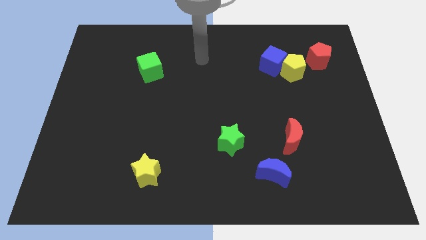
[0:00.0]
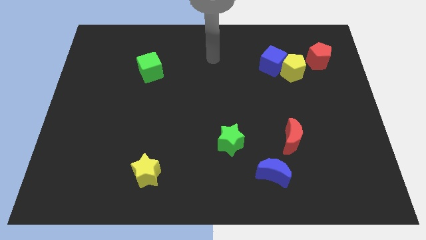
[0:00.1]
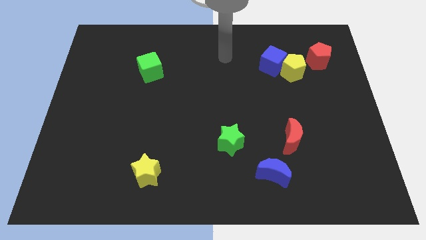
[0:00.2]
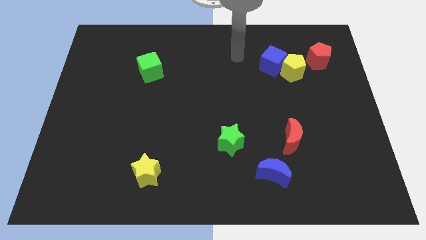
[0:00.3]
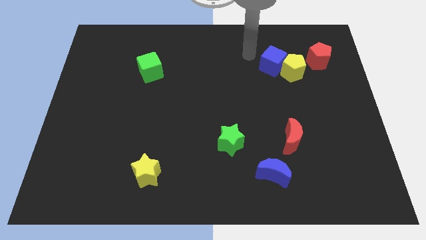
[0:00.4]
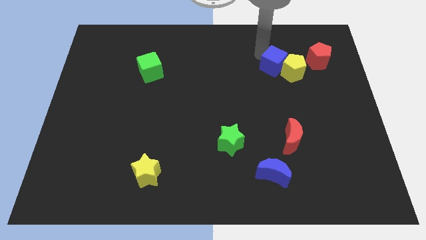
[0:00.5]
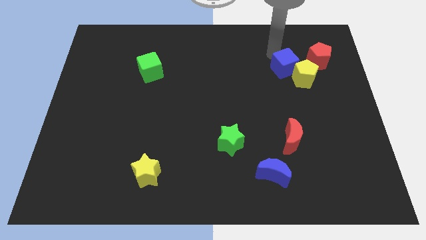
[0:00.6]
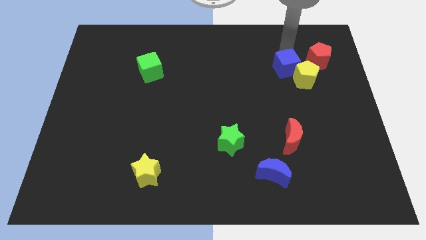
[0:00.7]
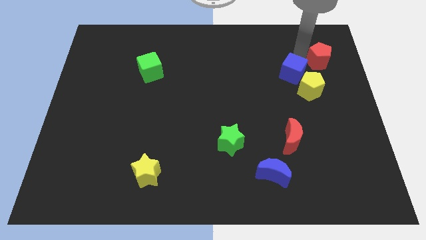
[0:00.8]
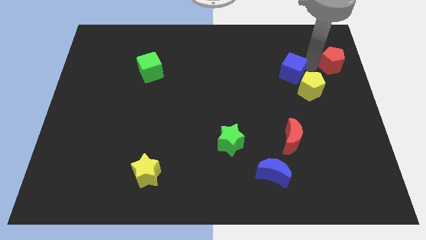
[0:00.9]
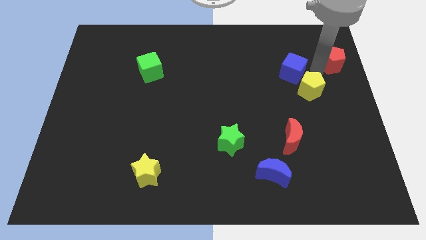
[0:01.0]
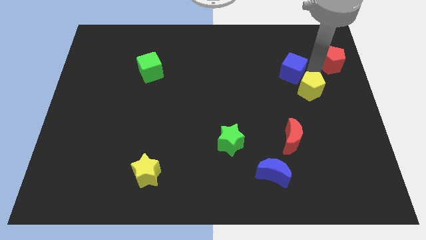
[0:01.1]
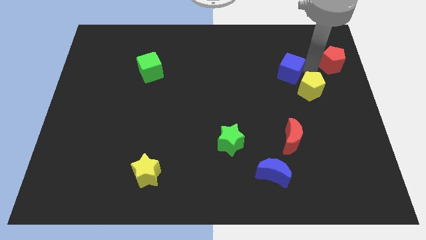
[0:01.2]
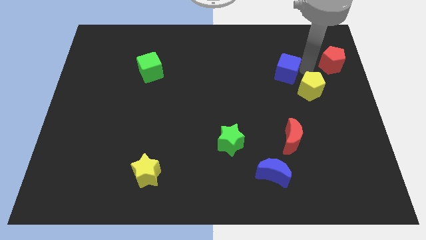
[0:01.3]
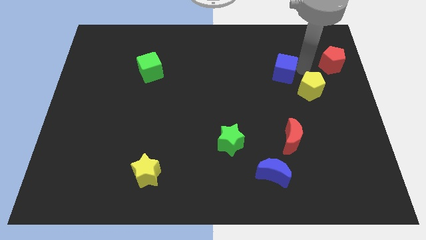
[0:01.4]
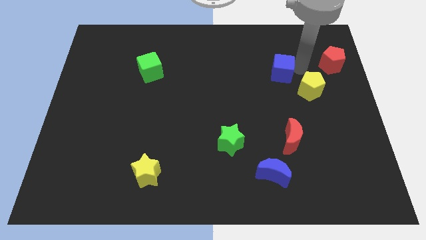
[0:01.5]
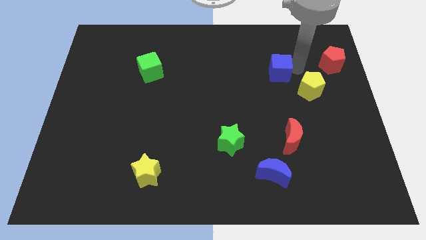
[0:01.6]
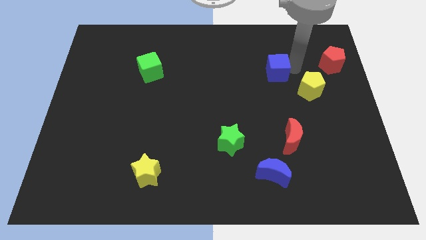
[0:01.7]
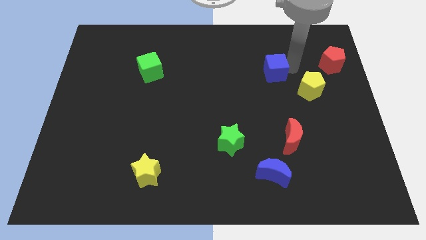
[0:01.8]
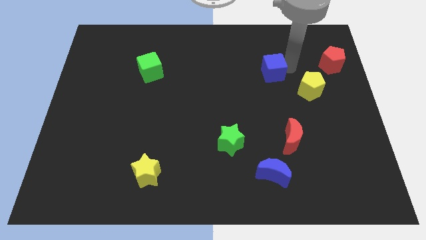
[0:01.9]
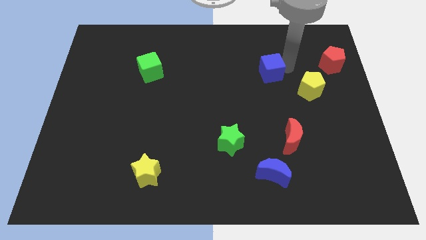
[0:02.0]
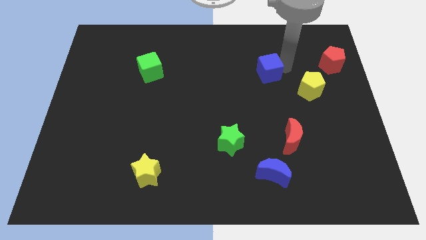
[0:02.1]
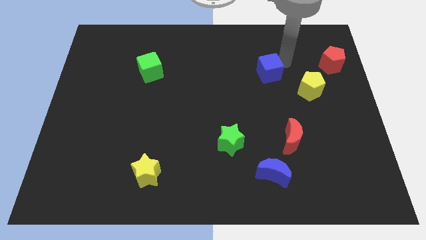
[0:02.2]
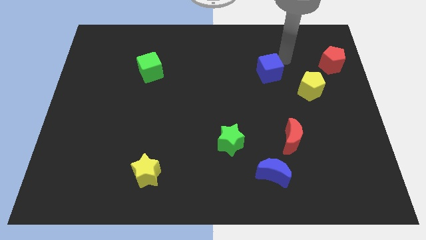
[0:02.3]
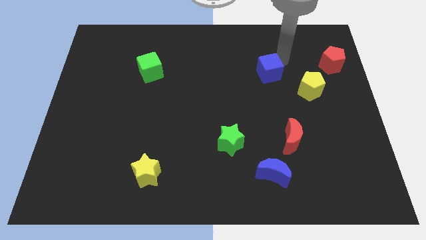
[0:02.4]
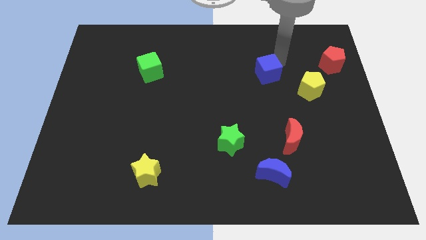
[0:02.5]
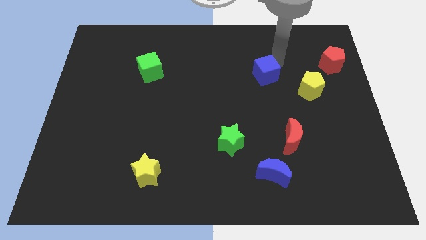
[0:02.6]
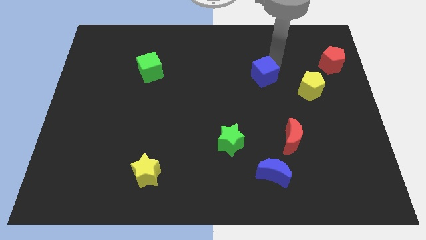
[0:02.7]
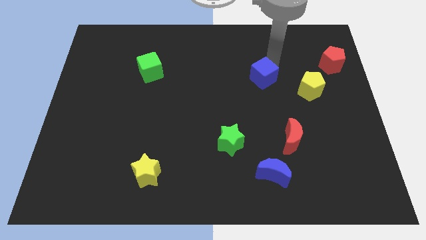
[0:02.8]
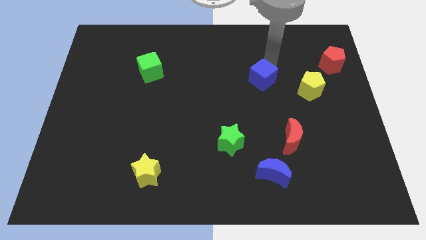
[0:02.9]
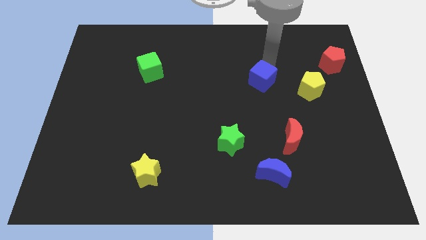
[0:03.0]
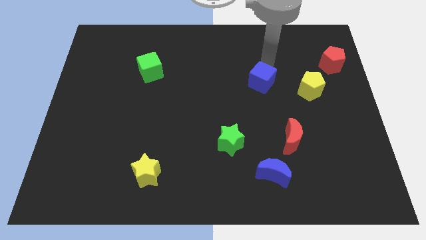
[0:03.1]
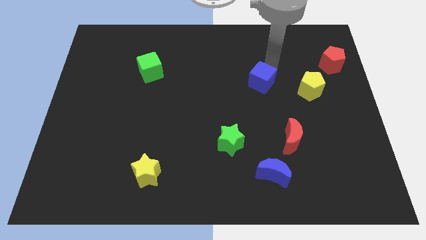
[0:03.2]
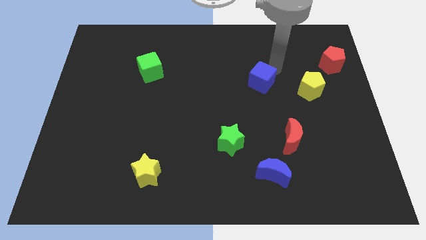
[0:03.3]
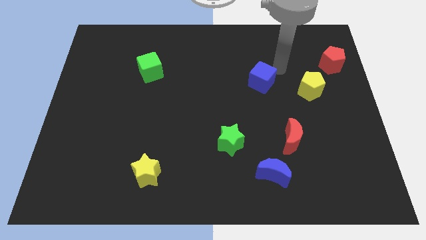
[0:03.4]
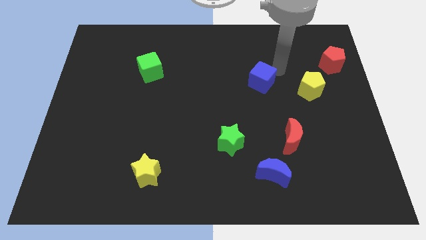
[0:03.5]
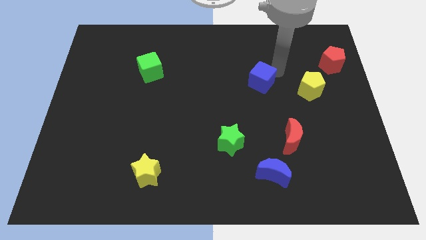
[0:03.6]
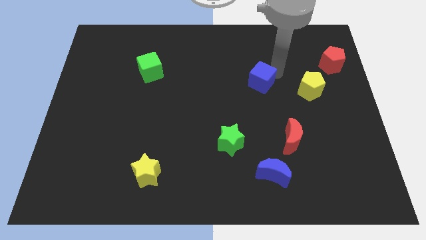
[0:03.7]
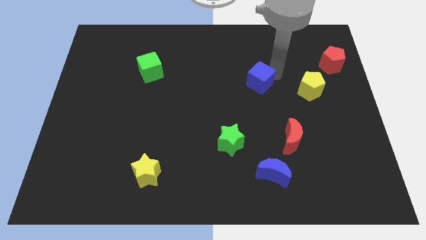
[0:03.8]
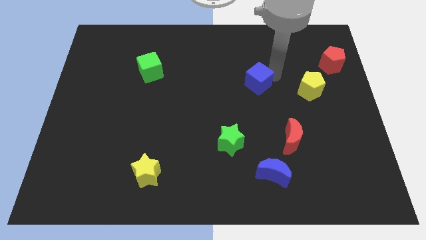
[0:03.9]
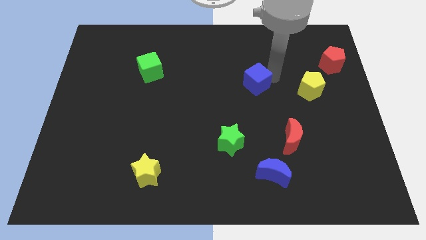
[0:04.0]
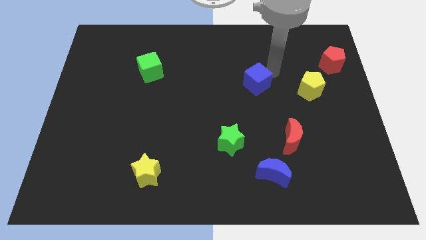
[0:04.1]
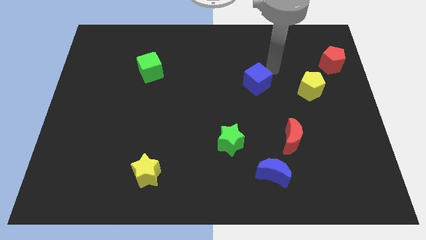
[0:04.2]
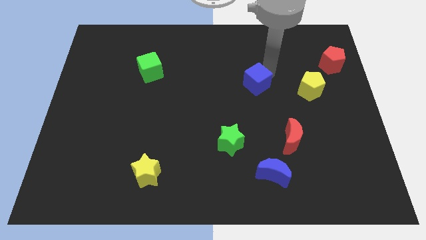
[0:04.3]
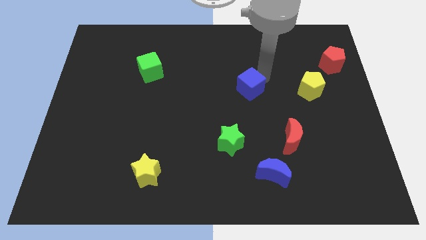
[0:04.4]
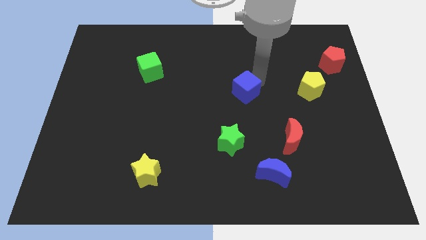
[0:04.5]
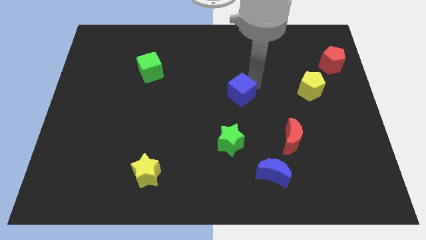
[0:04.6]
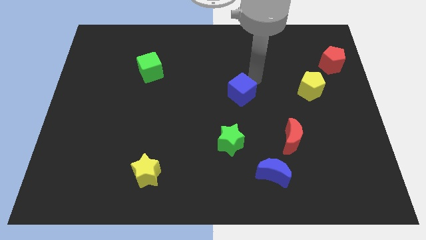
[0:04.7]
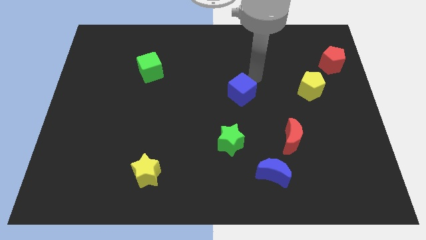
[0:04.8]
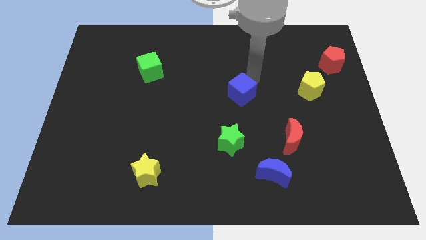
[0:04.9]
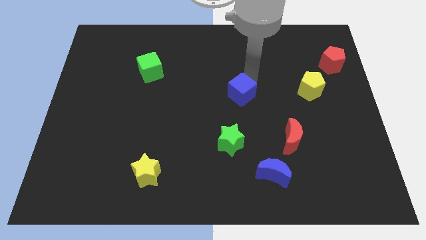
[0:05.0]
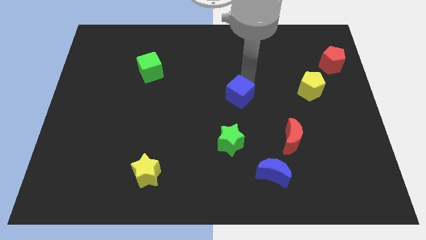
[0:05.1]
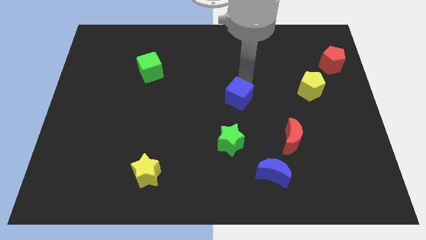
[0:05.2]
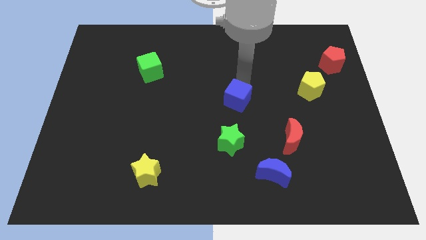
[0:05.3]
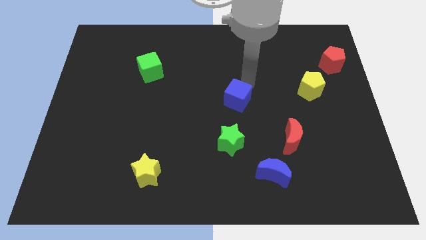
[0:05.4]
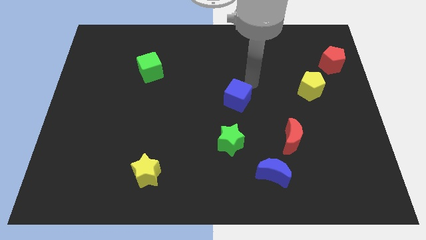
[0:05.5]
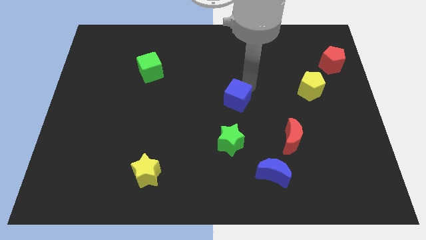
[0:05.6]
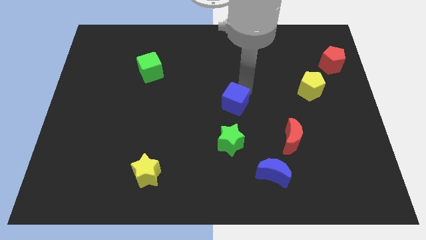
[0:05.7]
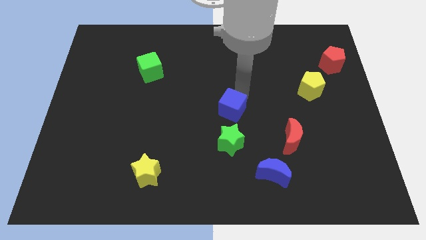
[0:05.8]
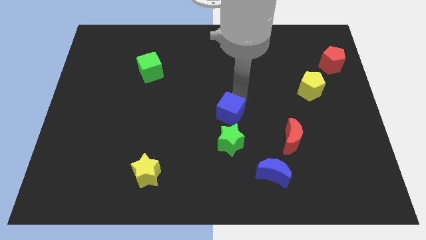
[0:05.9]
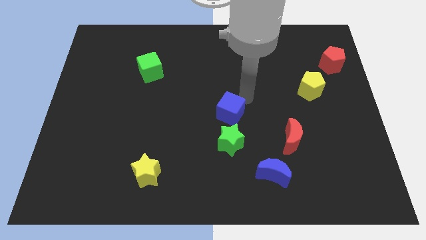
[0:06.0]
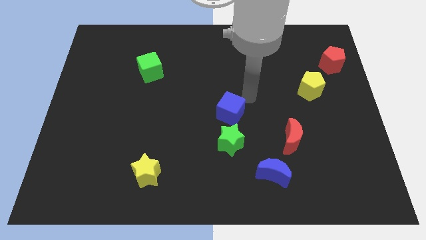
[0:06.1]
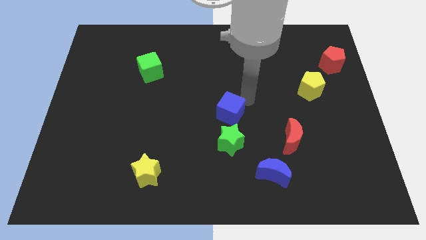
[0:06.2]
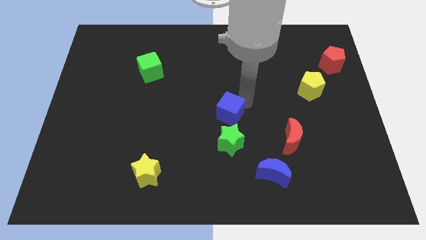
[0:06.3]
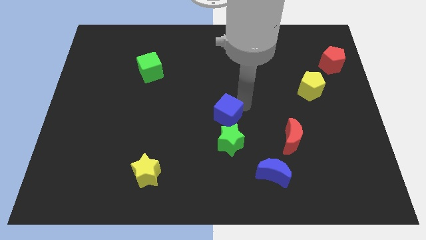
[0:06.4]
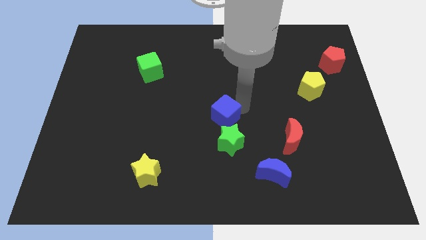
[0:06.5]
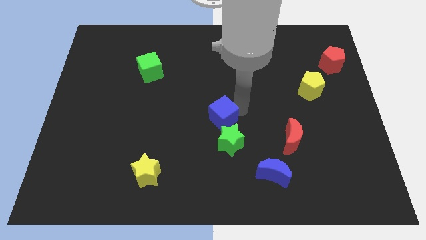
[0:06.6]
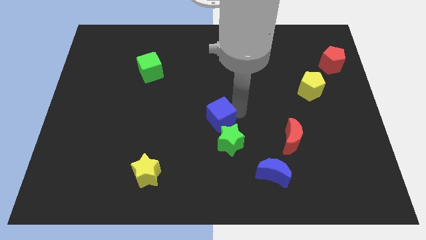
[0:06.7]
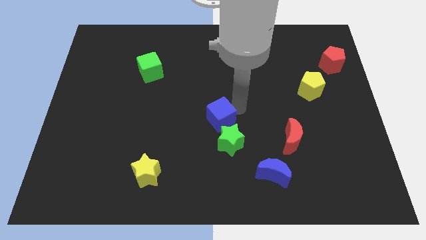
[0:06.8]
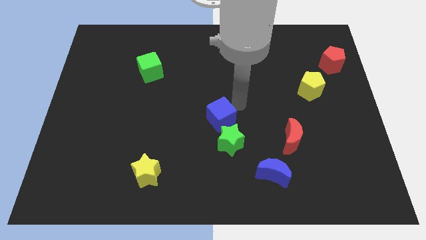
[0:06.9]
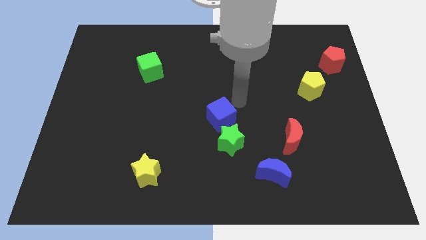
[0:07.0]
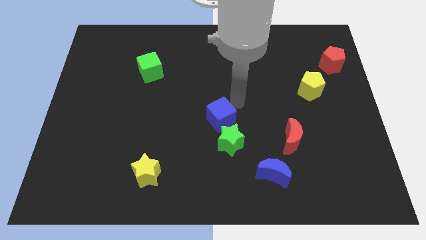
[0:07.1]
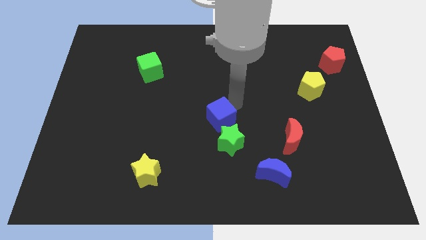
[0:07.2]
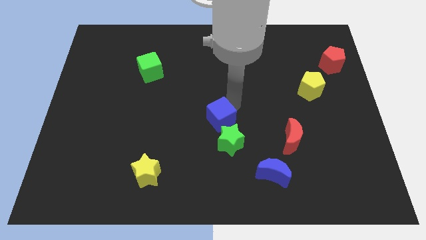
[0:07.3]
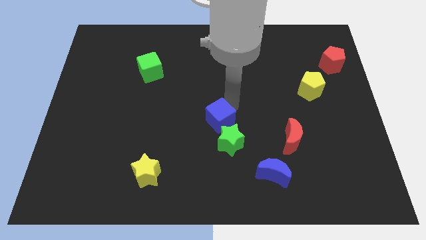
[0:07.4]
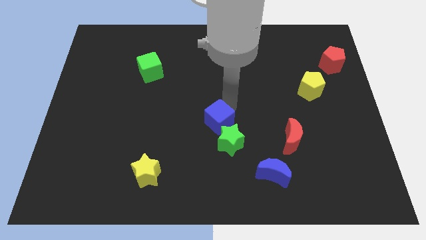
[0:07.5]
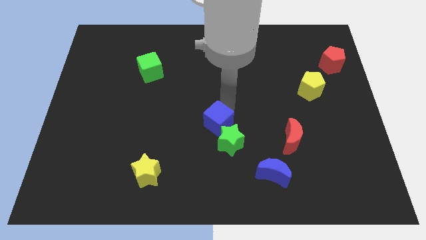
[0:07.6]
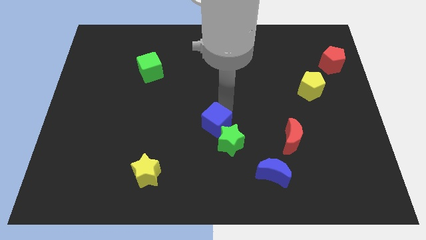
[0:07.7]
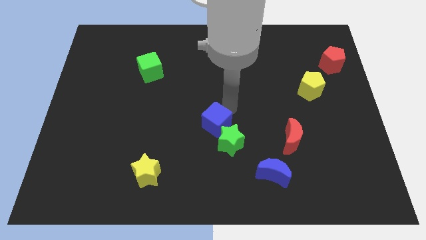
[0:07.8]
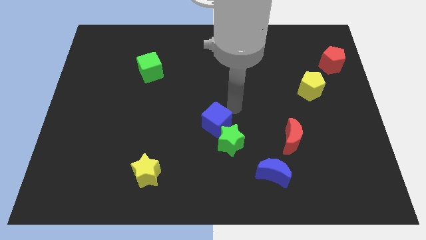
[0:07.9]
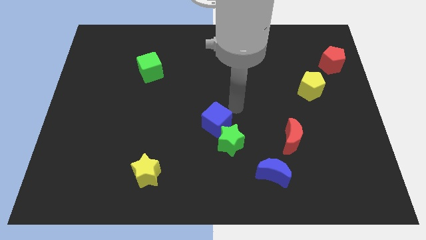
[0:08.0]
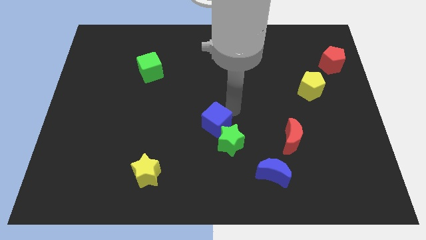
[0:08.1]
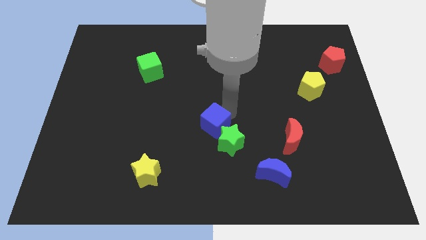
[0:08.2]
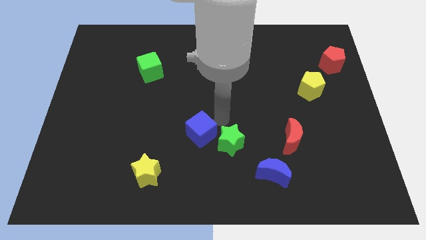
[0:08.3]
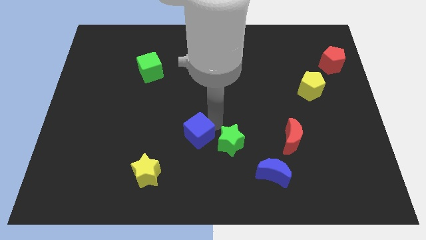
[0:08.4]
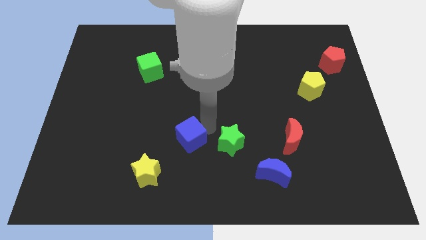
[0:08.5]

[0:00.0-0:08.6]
push the blue cube to the top right side of the yellow star
